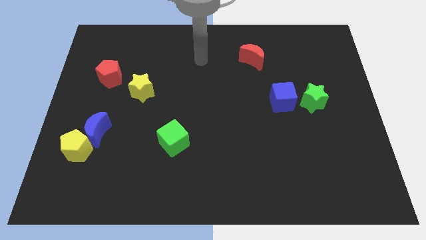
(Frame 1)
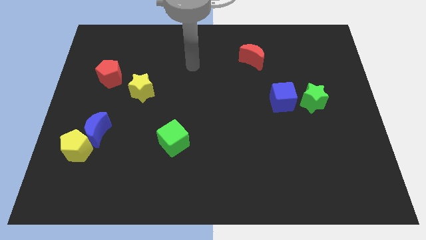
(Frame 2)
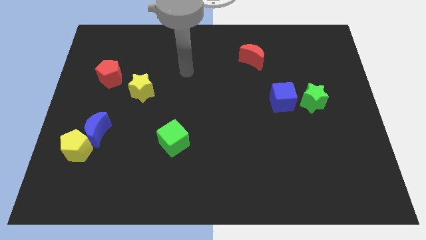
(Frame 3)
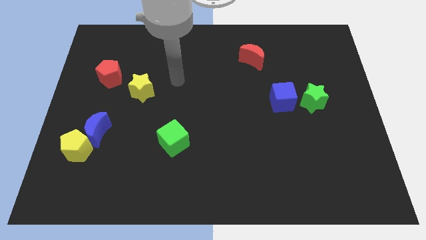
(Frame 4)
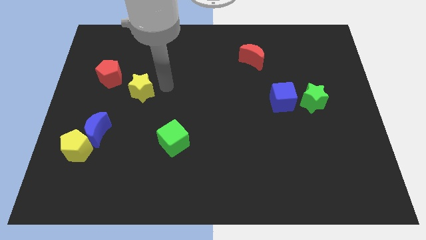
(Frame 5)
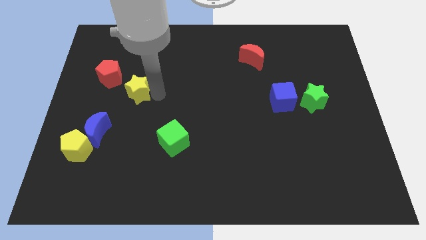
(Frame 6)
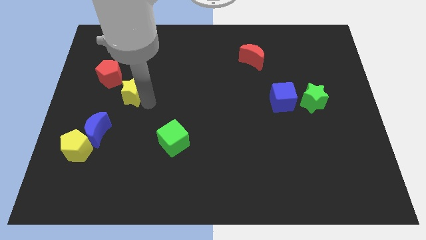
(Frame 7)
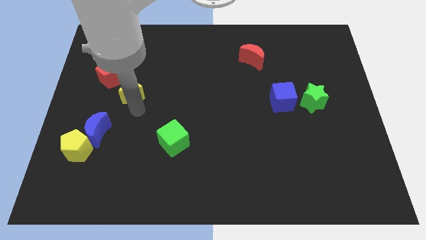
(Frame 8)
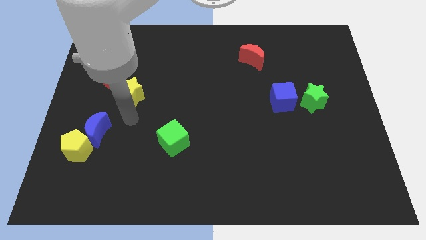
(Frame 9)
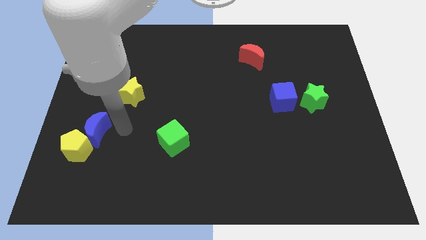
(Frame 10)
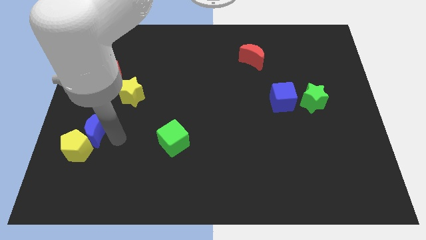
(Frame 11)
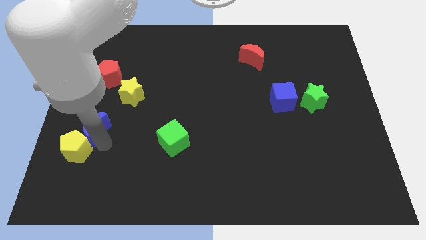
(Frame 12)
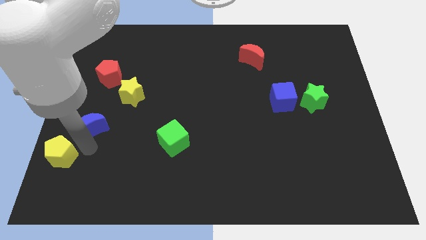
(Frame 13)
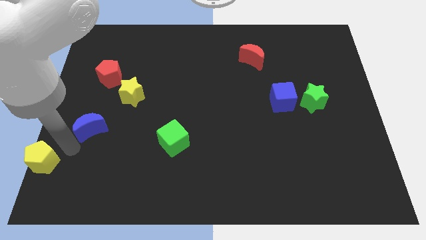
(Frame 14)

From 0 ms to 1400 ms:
separate the blue moon from the yellow pentagon

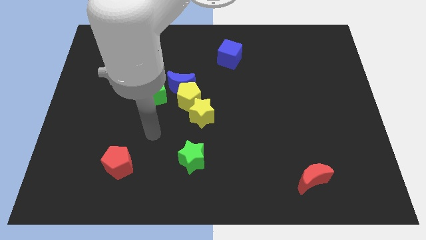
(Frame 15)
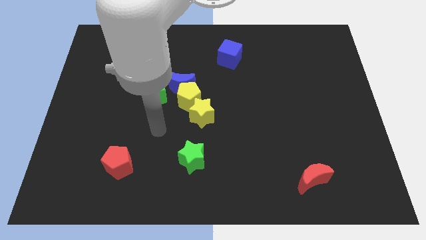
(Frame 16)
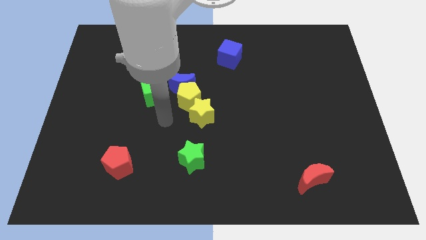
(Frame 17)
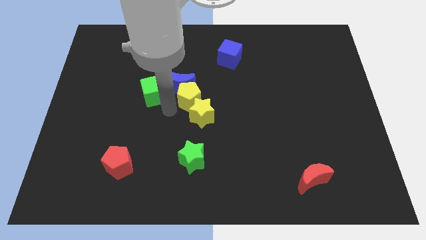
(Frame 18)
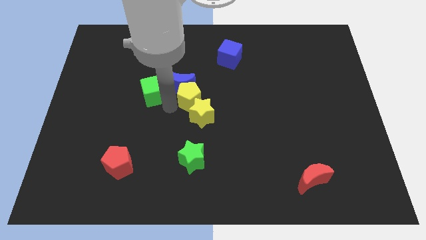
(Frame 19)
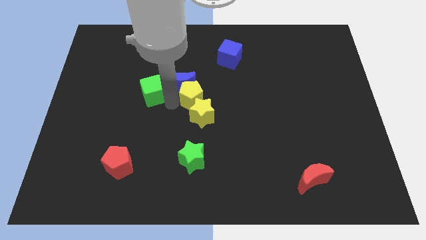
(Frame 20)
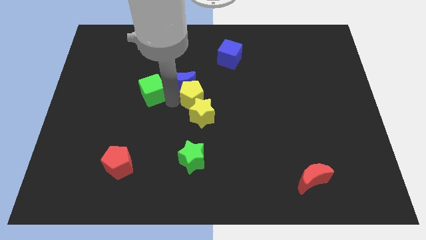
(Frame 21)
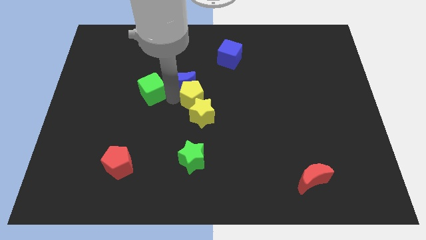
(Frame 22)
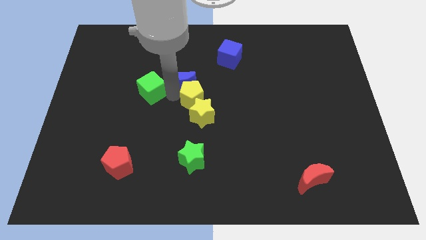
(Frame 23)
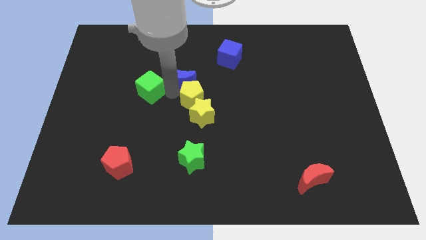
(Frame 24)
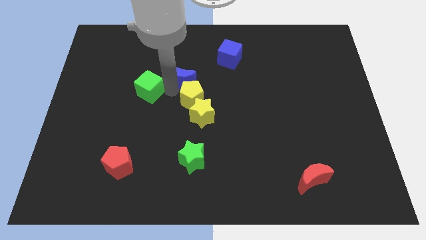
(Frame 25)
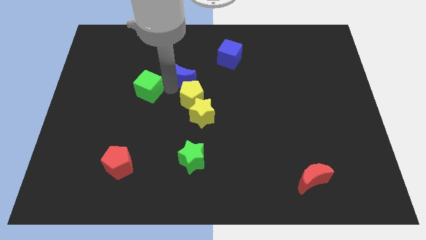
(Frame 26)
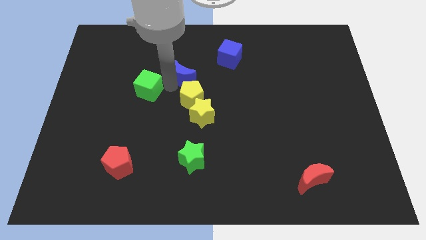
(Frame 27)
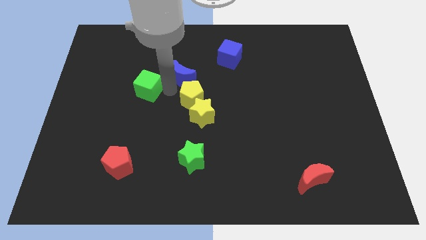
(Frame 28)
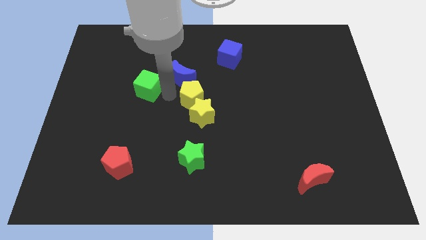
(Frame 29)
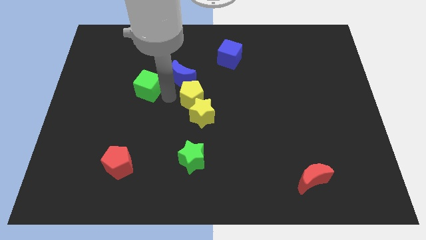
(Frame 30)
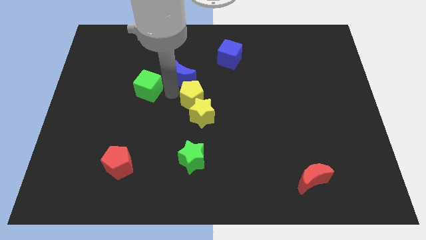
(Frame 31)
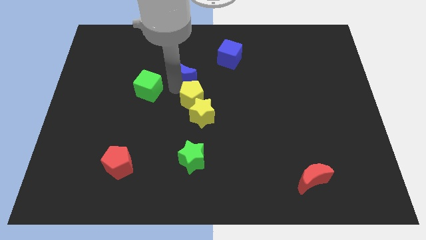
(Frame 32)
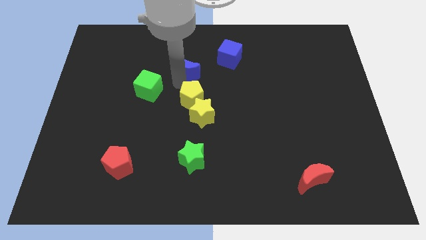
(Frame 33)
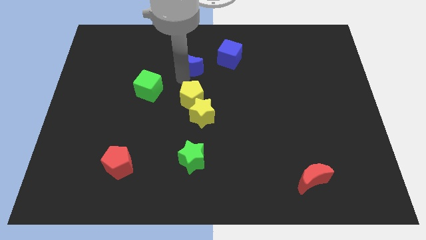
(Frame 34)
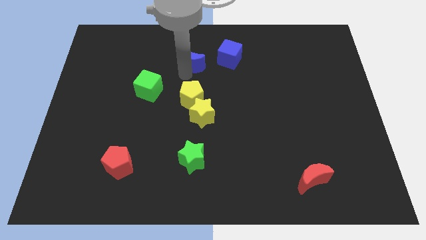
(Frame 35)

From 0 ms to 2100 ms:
separate the blue moon from the yellow pentagon and green cube

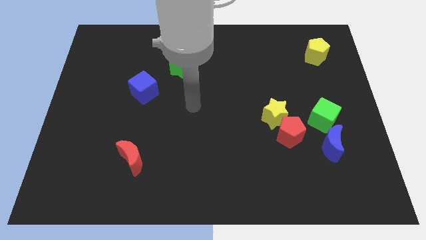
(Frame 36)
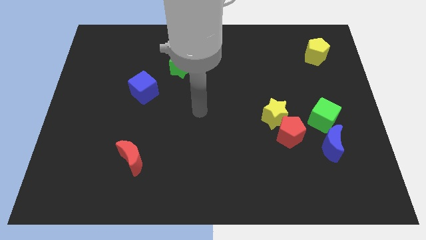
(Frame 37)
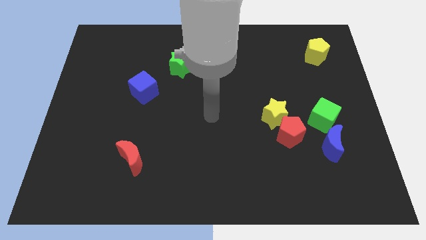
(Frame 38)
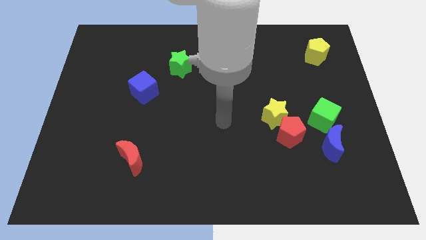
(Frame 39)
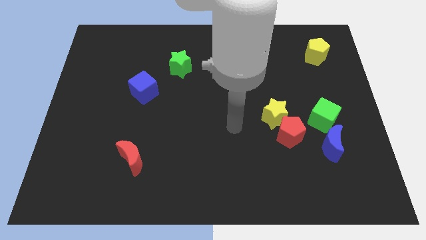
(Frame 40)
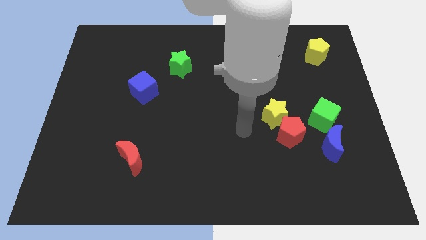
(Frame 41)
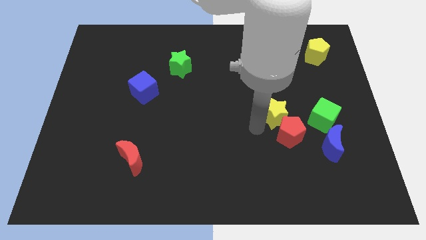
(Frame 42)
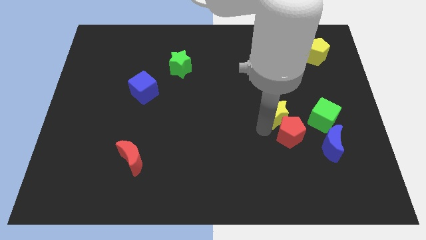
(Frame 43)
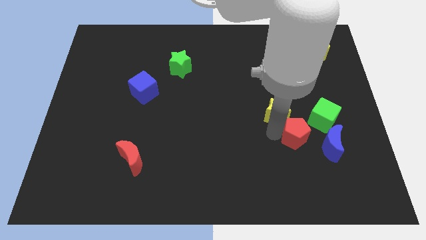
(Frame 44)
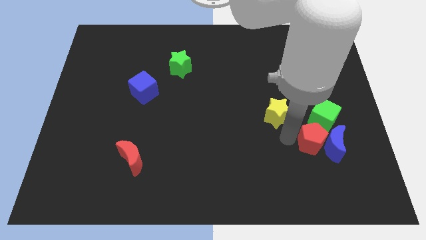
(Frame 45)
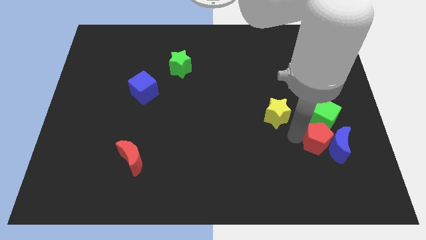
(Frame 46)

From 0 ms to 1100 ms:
move the yellow star away from the red pentagon

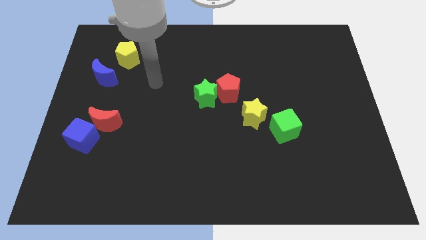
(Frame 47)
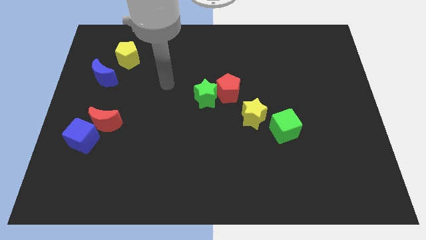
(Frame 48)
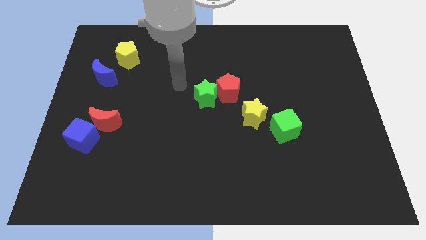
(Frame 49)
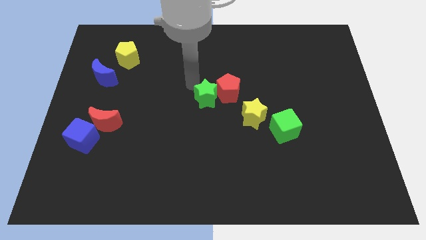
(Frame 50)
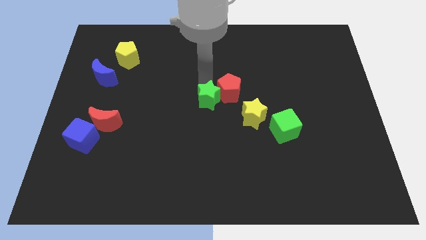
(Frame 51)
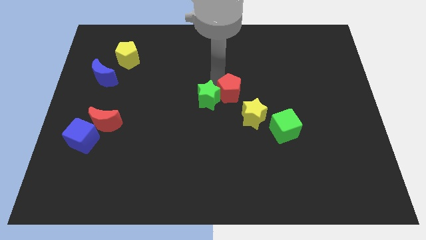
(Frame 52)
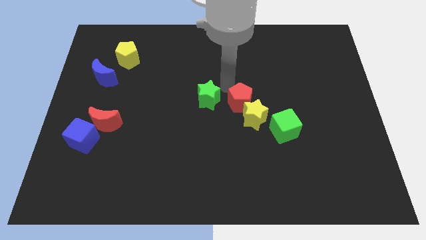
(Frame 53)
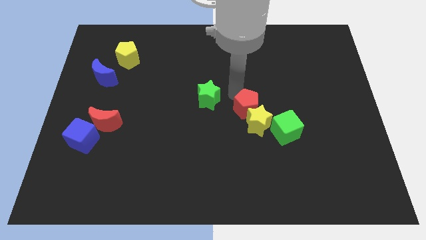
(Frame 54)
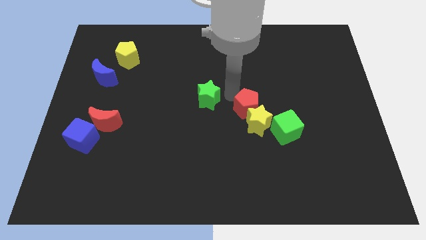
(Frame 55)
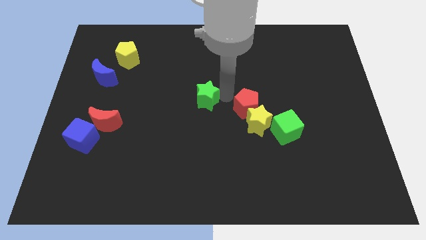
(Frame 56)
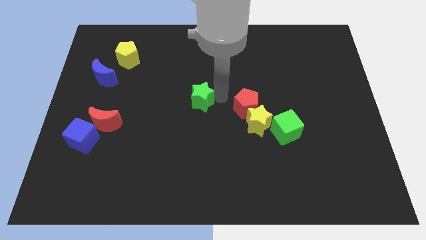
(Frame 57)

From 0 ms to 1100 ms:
pull the green star apart from the red pentagon

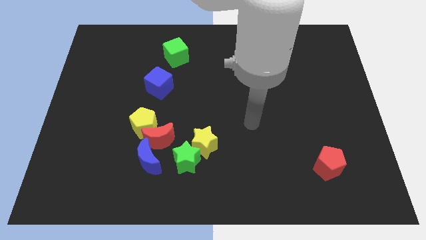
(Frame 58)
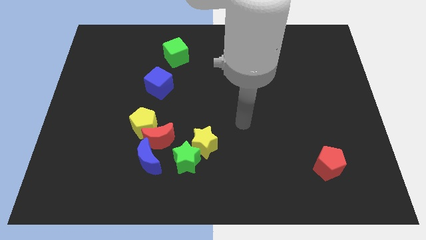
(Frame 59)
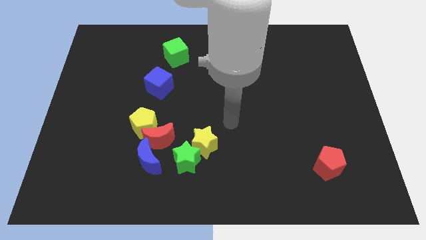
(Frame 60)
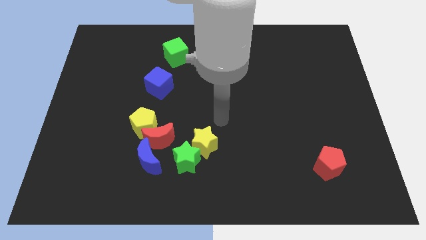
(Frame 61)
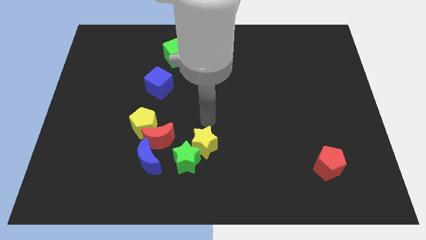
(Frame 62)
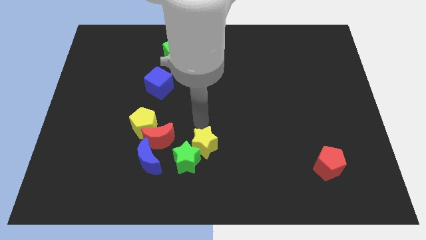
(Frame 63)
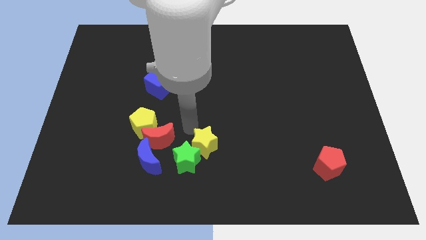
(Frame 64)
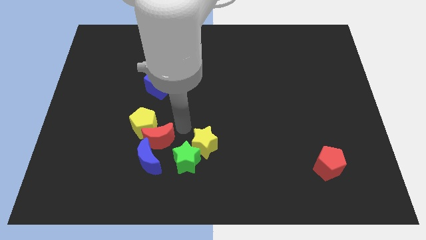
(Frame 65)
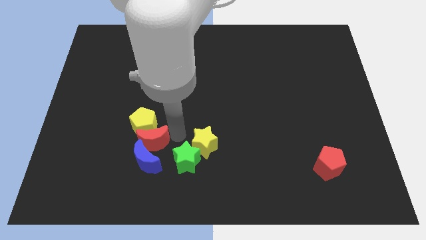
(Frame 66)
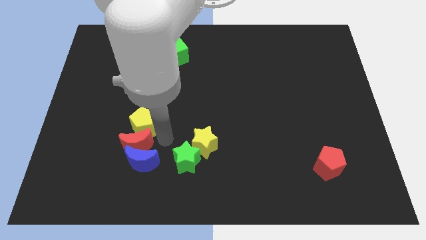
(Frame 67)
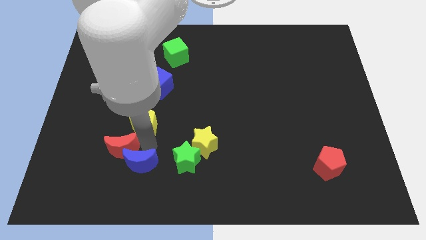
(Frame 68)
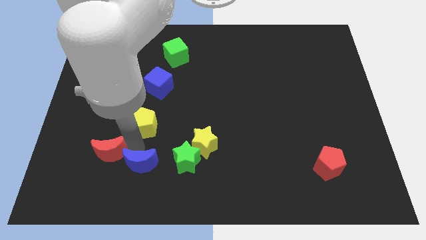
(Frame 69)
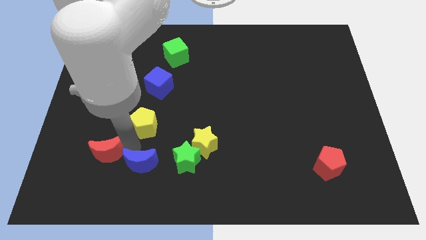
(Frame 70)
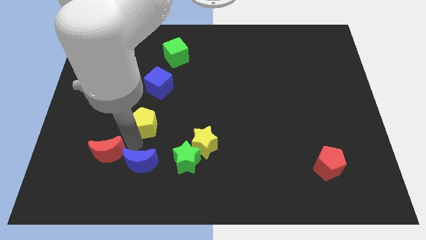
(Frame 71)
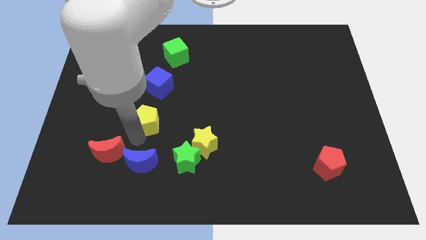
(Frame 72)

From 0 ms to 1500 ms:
pull the yellow pentagon apart from the red moon and blue moon

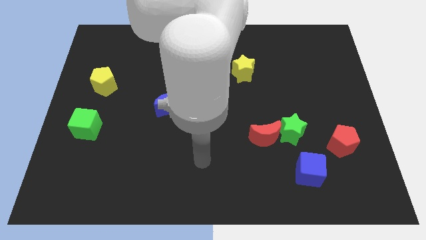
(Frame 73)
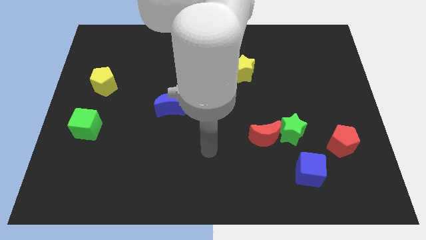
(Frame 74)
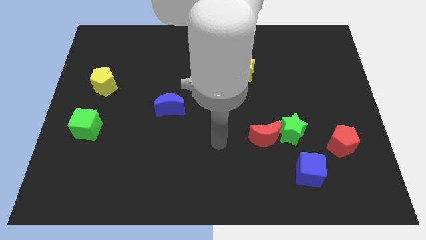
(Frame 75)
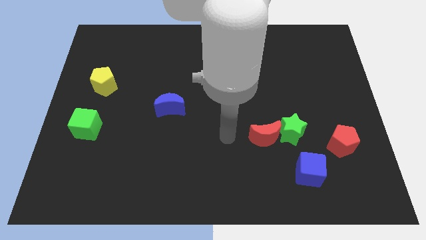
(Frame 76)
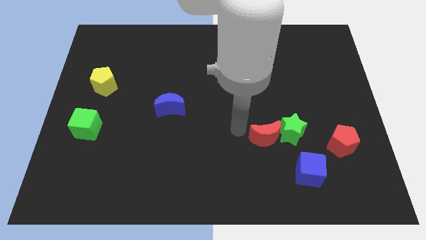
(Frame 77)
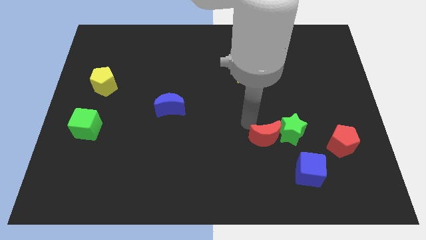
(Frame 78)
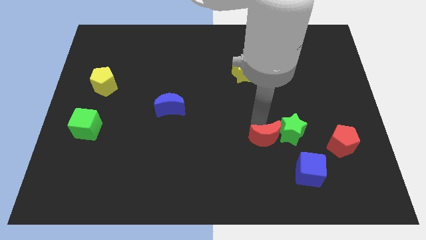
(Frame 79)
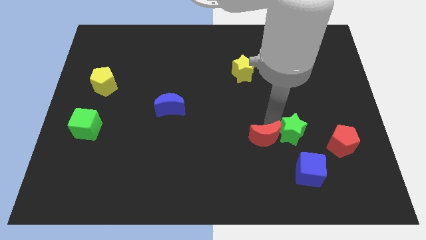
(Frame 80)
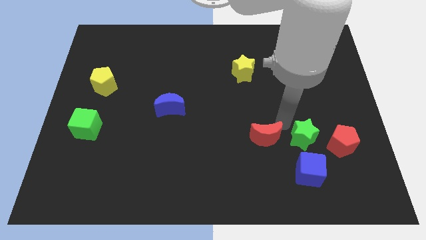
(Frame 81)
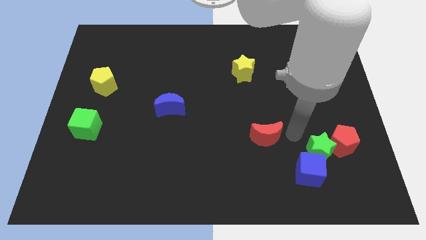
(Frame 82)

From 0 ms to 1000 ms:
separate the red moon from the green star

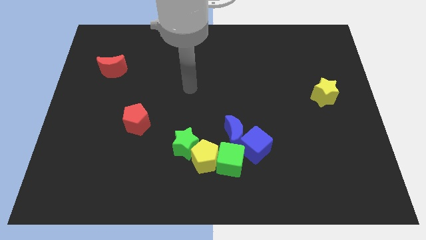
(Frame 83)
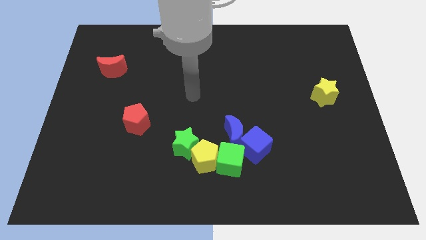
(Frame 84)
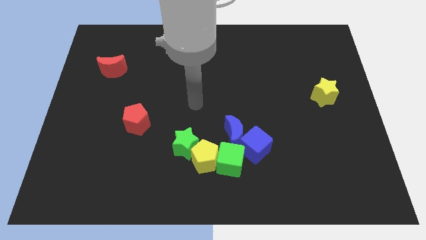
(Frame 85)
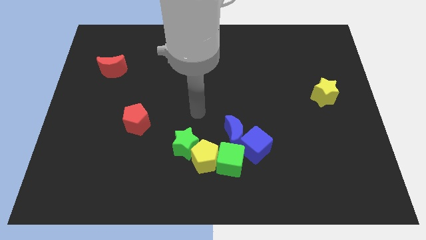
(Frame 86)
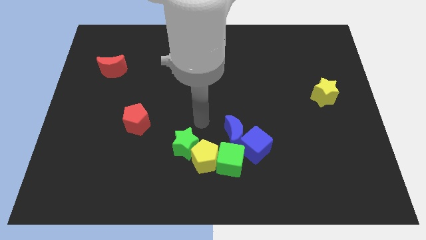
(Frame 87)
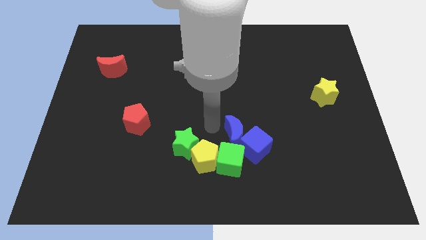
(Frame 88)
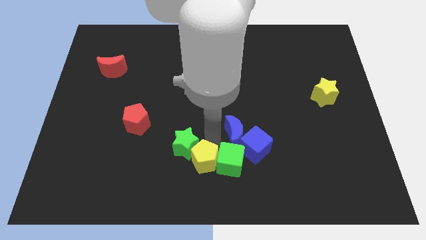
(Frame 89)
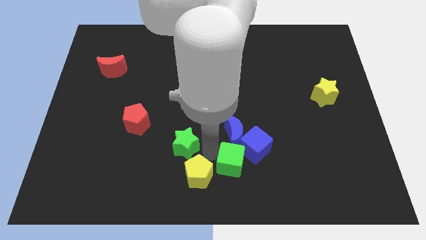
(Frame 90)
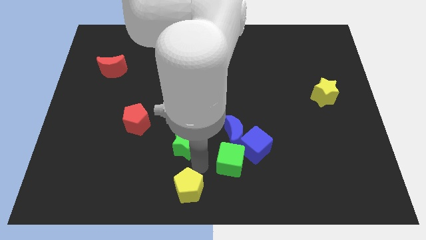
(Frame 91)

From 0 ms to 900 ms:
move the green star away from the yellow pentagon
